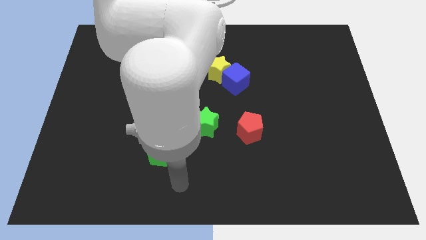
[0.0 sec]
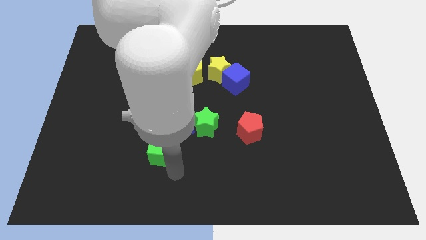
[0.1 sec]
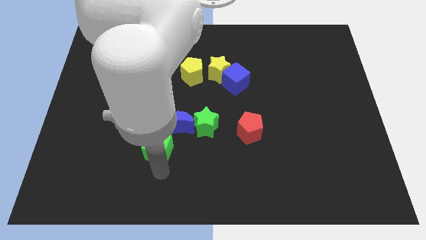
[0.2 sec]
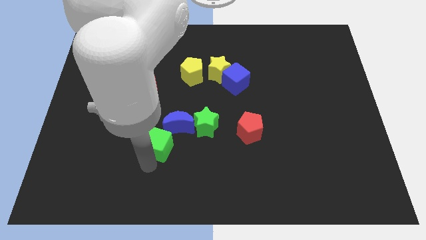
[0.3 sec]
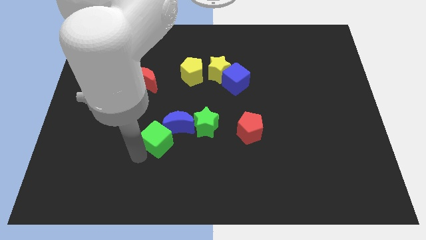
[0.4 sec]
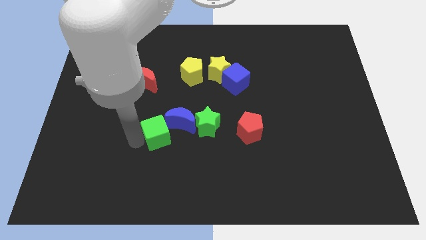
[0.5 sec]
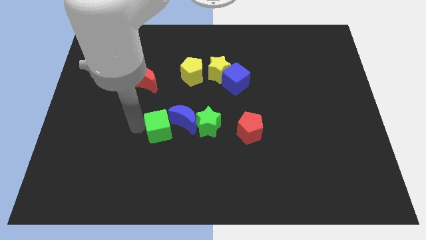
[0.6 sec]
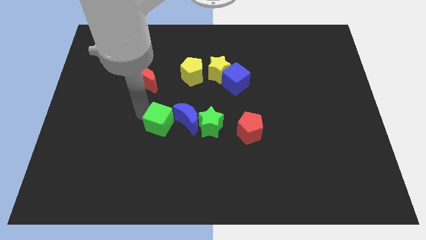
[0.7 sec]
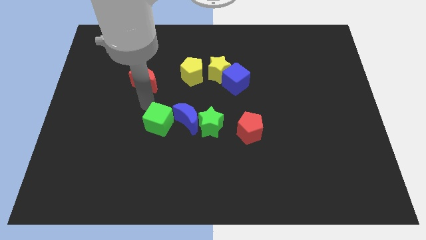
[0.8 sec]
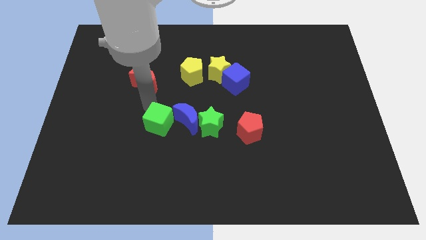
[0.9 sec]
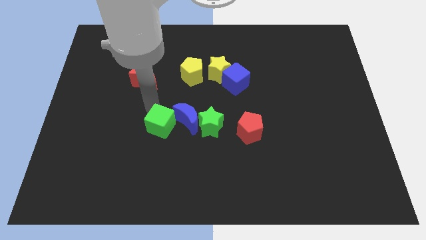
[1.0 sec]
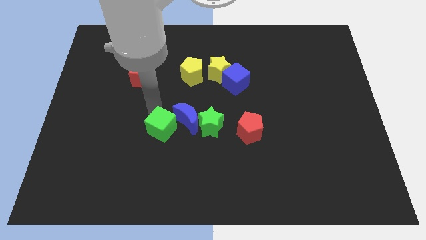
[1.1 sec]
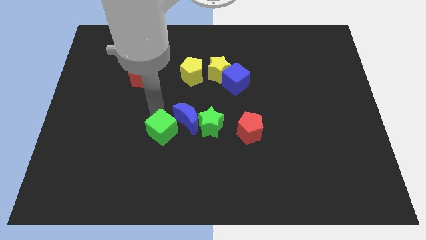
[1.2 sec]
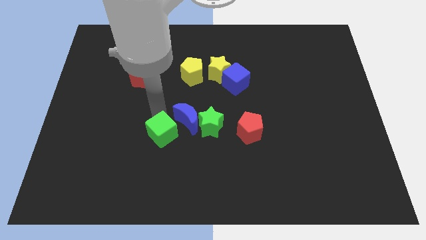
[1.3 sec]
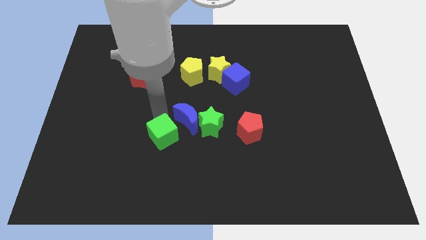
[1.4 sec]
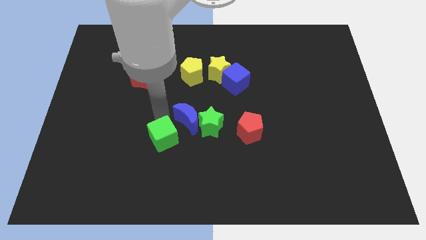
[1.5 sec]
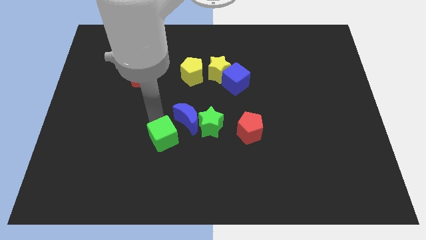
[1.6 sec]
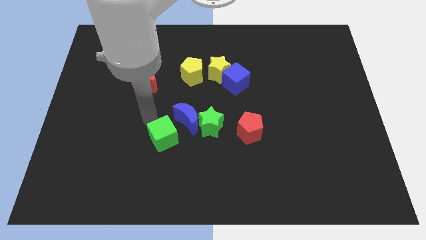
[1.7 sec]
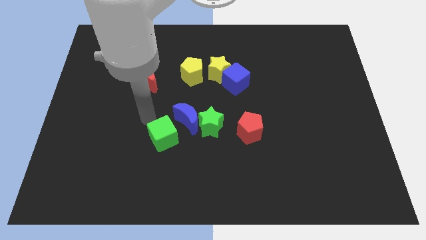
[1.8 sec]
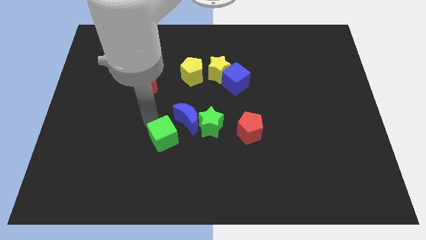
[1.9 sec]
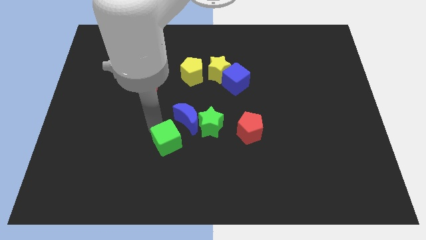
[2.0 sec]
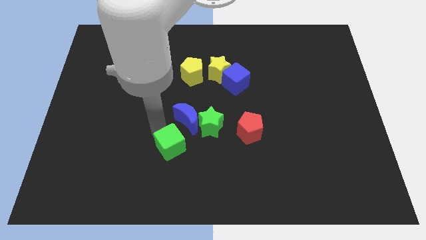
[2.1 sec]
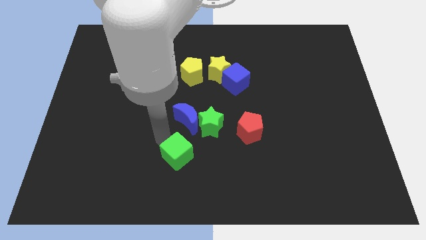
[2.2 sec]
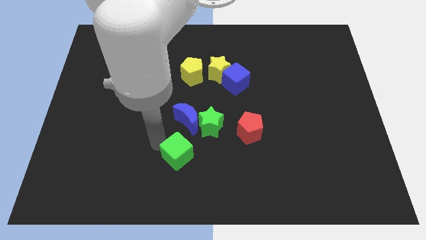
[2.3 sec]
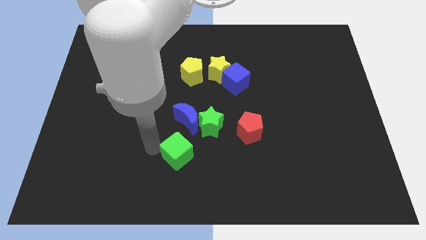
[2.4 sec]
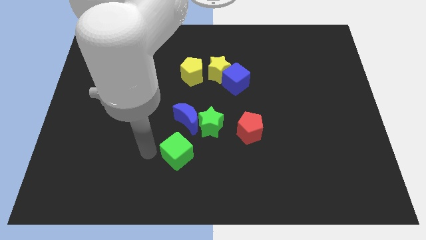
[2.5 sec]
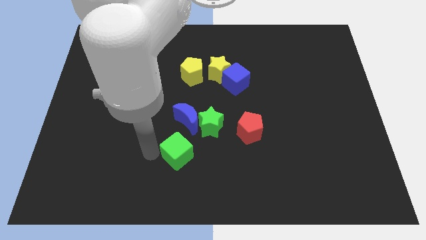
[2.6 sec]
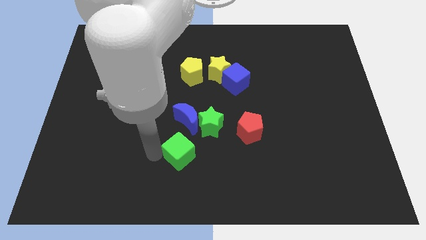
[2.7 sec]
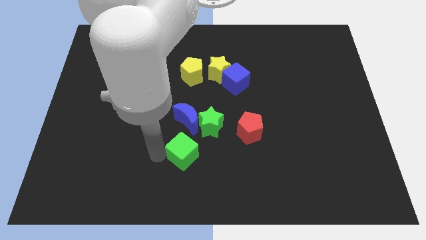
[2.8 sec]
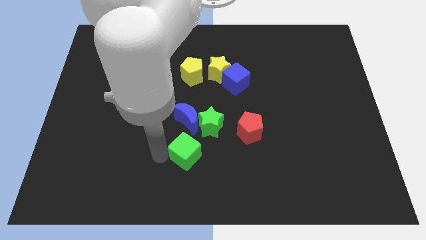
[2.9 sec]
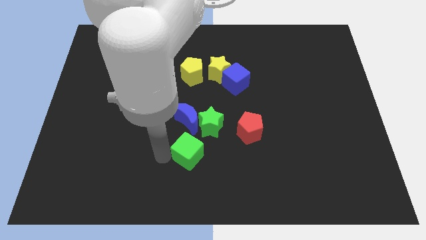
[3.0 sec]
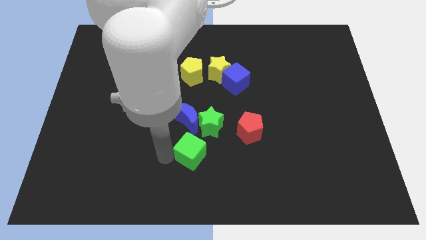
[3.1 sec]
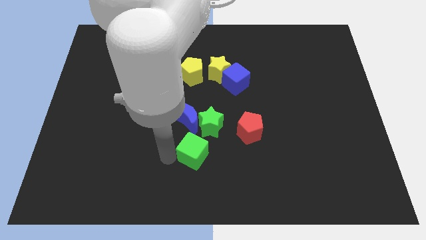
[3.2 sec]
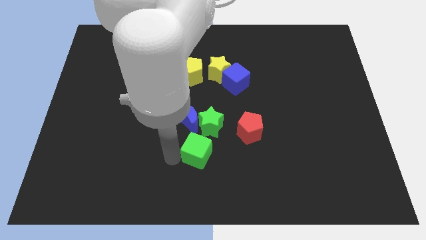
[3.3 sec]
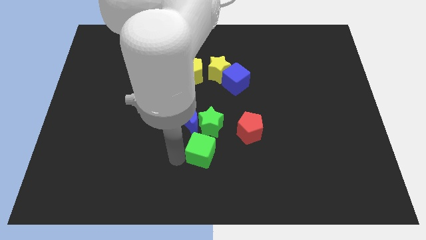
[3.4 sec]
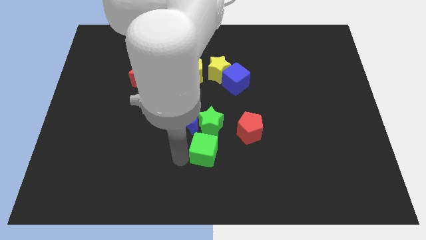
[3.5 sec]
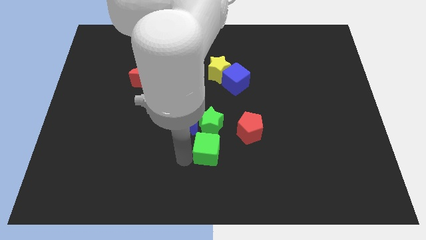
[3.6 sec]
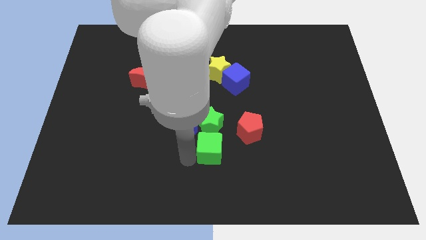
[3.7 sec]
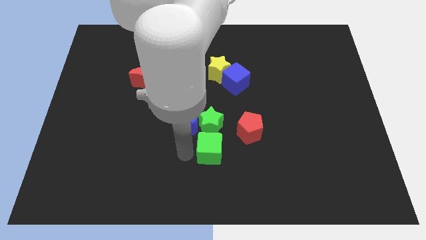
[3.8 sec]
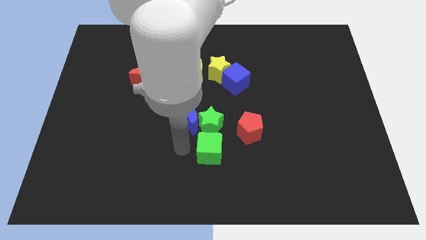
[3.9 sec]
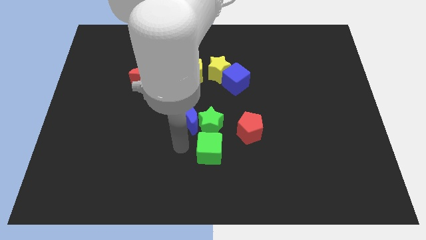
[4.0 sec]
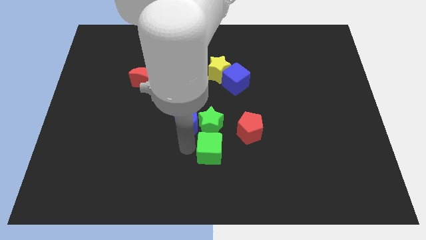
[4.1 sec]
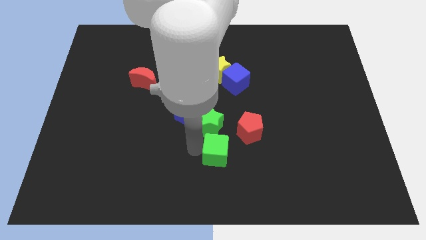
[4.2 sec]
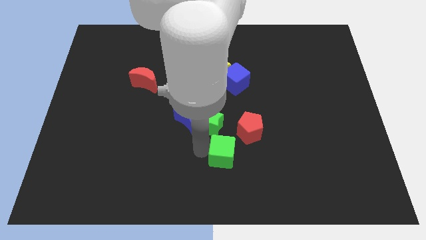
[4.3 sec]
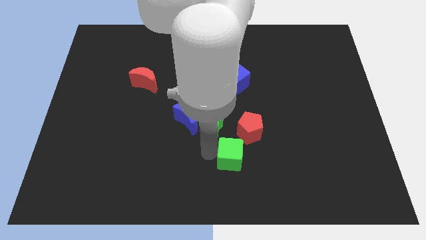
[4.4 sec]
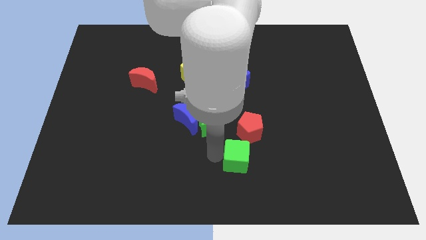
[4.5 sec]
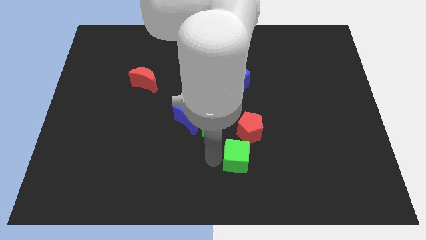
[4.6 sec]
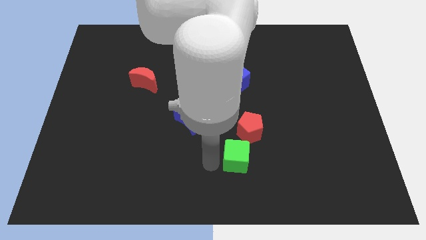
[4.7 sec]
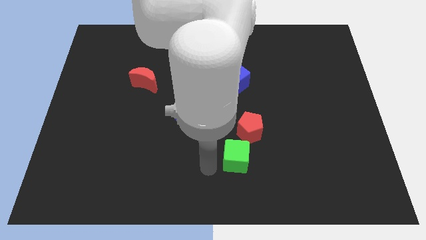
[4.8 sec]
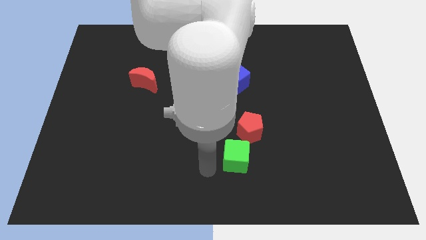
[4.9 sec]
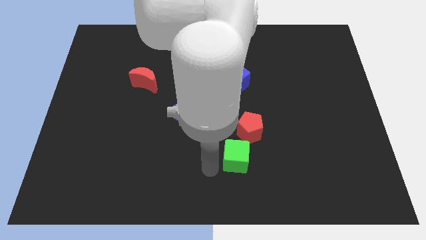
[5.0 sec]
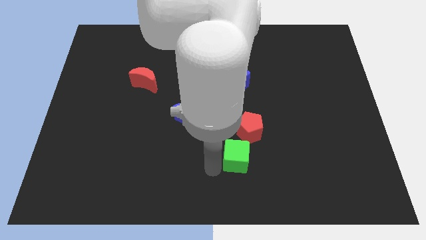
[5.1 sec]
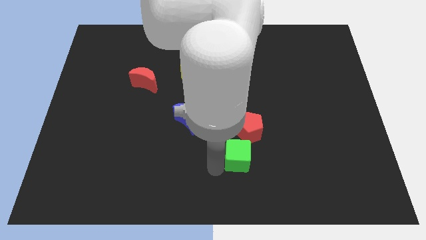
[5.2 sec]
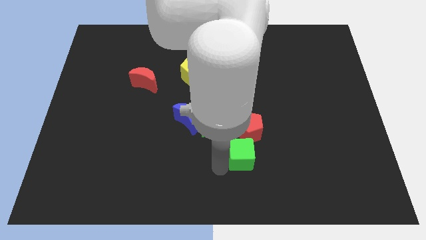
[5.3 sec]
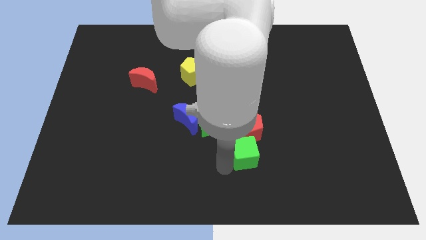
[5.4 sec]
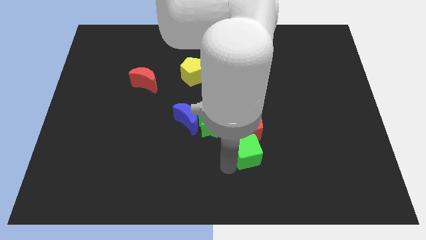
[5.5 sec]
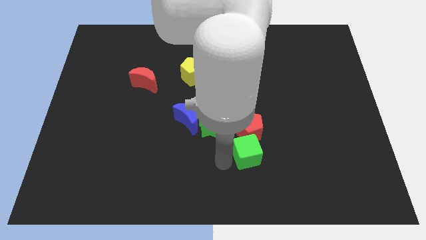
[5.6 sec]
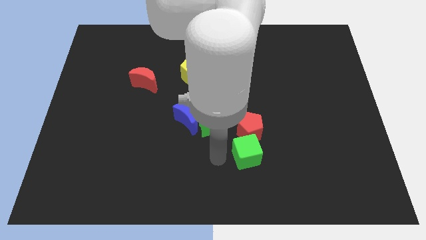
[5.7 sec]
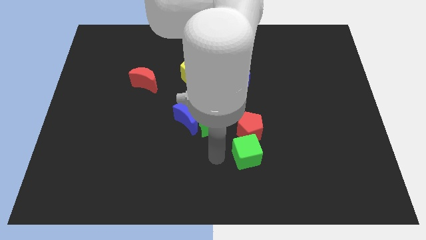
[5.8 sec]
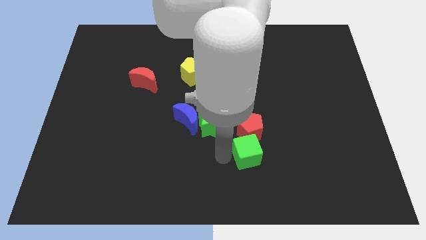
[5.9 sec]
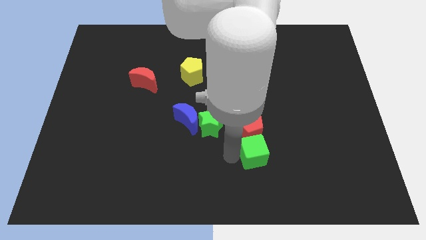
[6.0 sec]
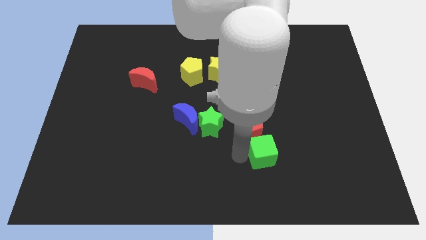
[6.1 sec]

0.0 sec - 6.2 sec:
push the green cube right

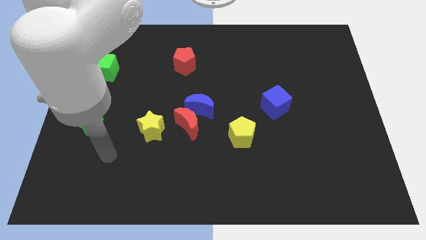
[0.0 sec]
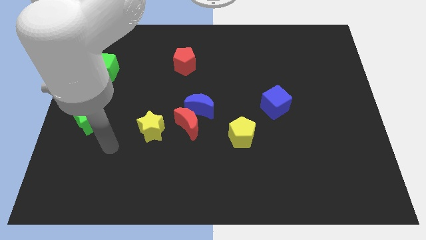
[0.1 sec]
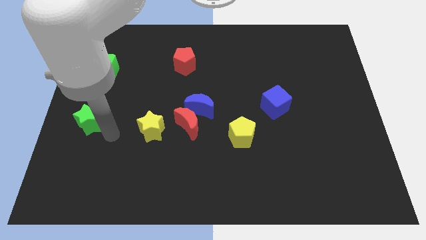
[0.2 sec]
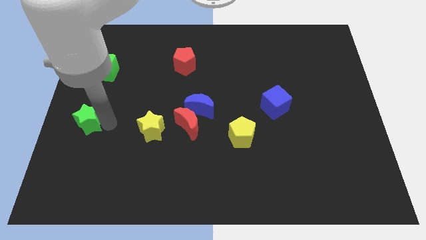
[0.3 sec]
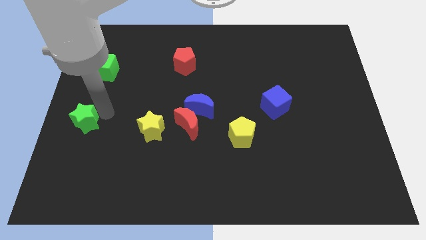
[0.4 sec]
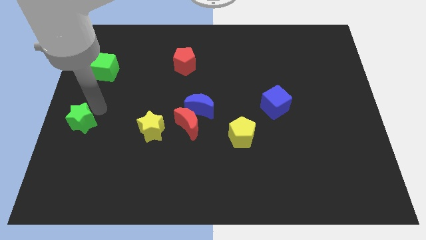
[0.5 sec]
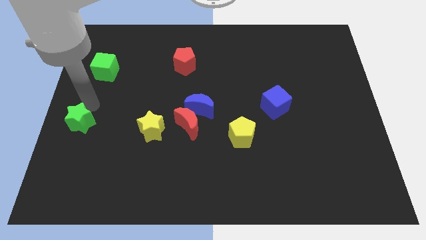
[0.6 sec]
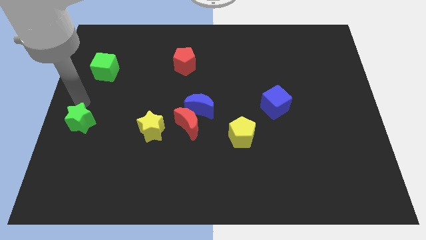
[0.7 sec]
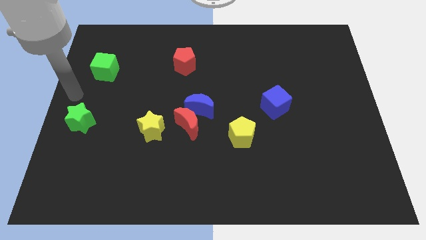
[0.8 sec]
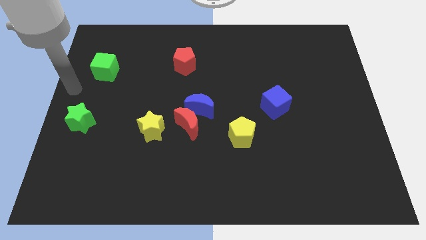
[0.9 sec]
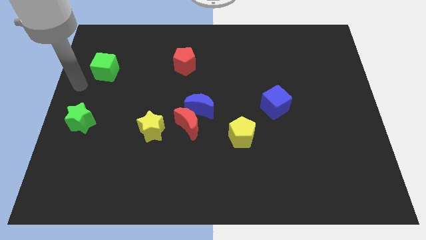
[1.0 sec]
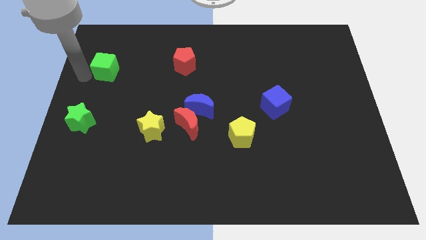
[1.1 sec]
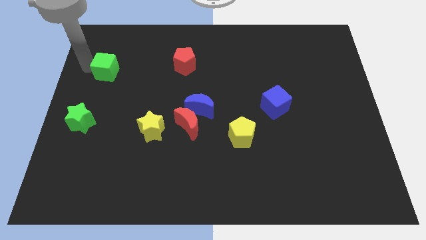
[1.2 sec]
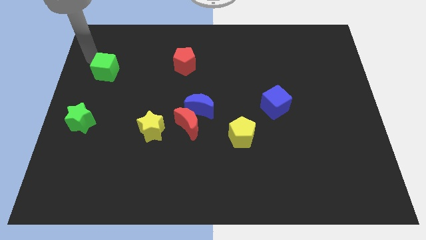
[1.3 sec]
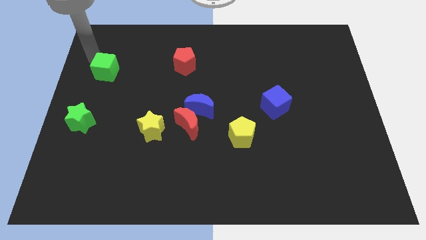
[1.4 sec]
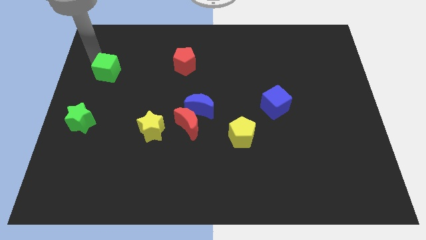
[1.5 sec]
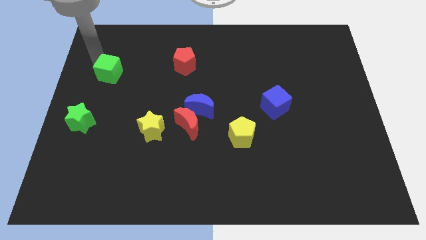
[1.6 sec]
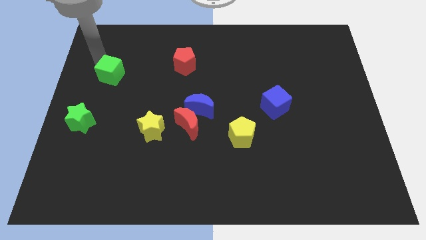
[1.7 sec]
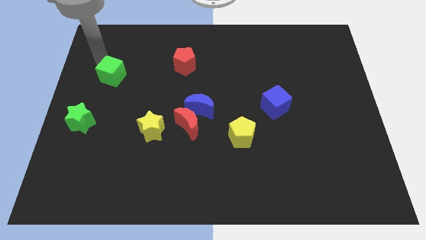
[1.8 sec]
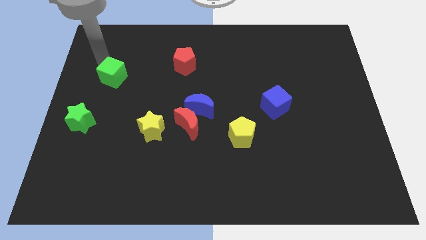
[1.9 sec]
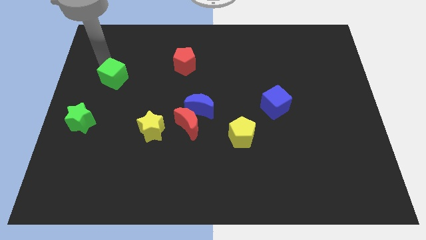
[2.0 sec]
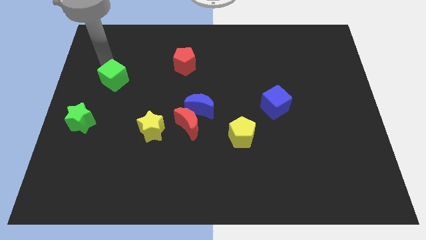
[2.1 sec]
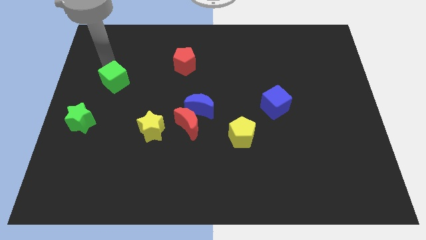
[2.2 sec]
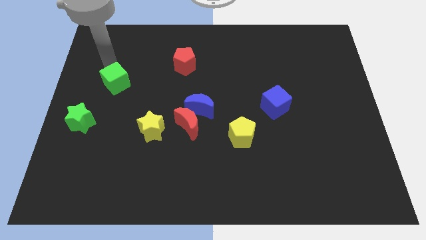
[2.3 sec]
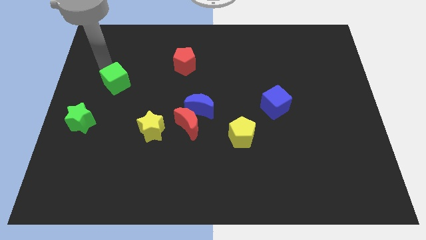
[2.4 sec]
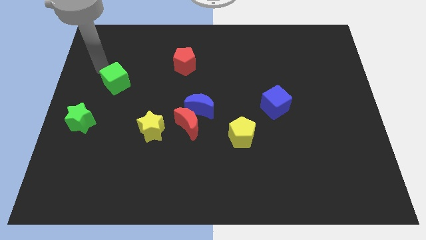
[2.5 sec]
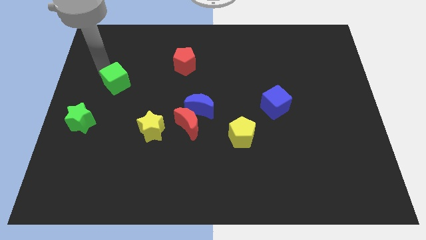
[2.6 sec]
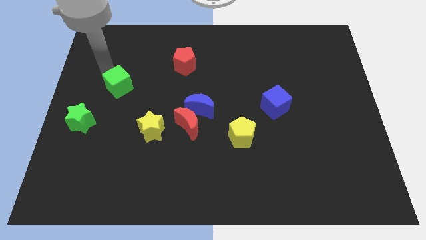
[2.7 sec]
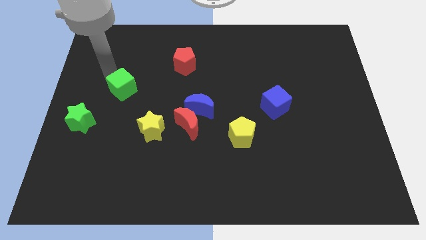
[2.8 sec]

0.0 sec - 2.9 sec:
move the green cube somewhat down and right
